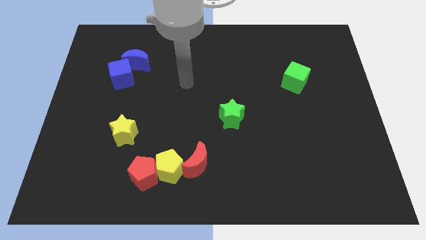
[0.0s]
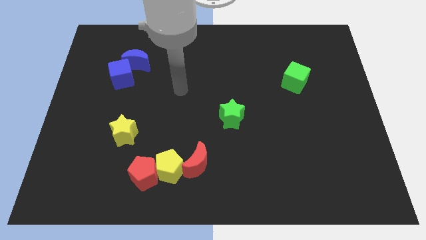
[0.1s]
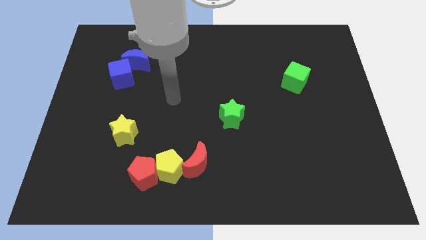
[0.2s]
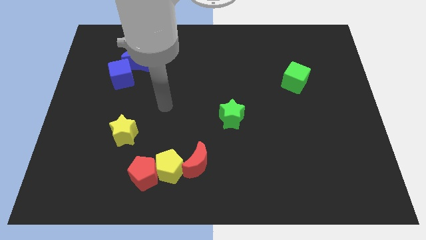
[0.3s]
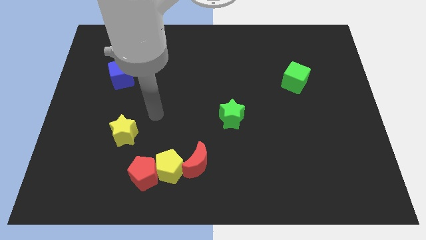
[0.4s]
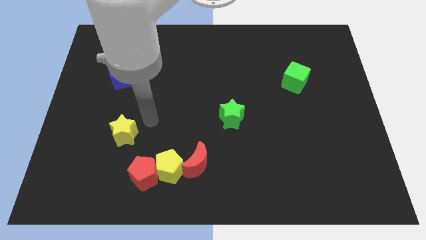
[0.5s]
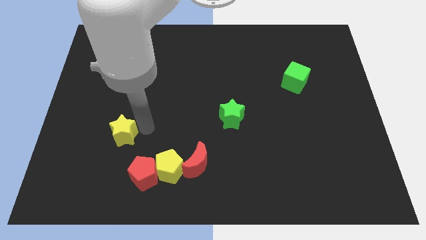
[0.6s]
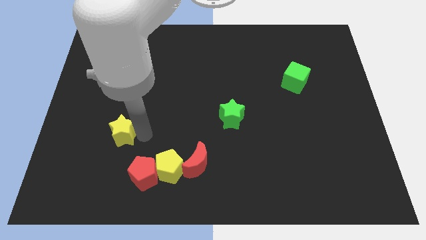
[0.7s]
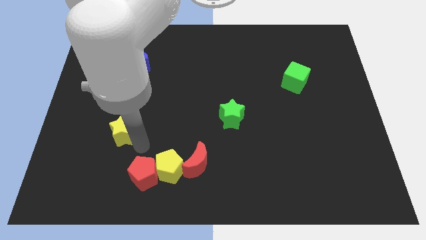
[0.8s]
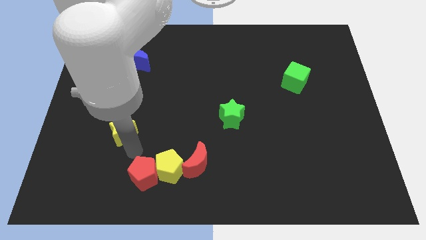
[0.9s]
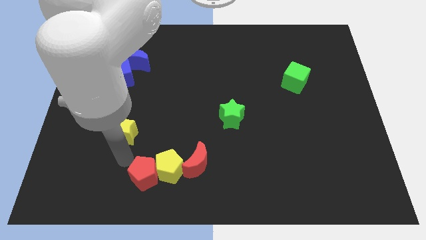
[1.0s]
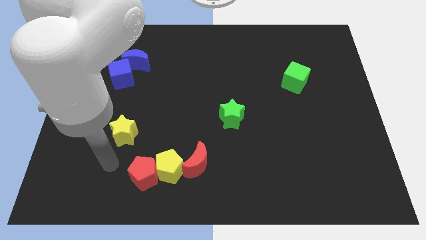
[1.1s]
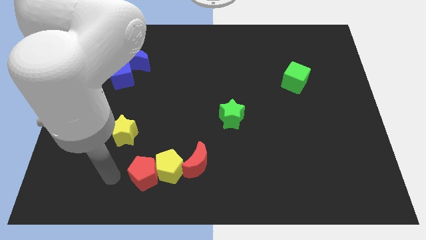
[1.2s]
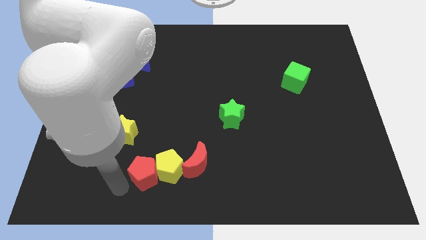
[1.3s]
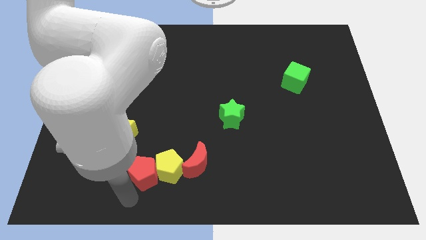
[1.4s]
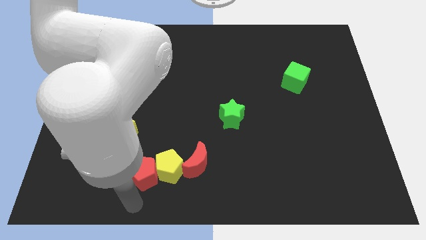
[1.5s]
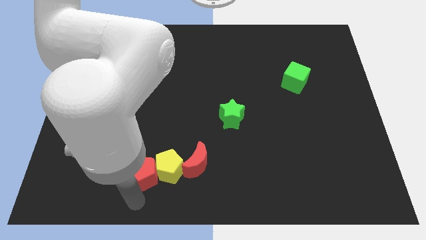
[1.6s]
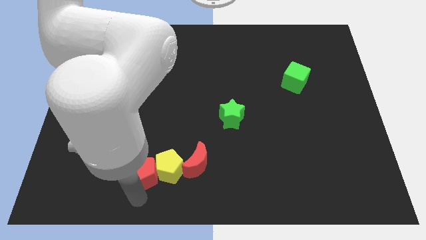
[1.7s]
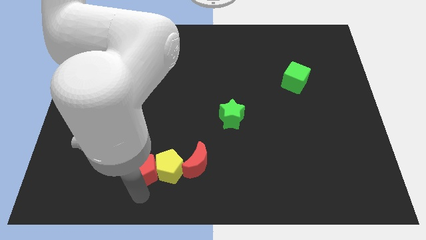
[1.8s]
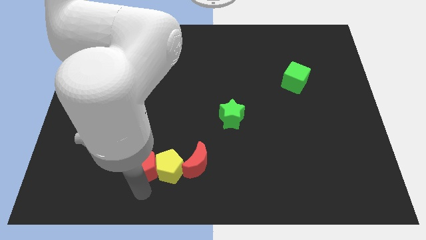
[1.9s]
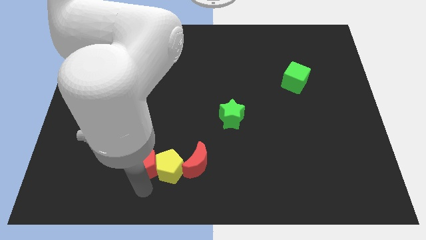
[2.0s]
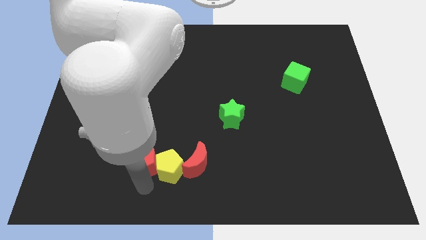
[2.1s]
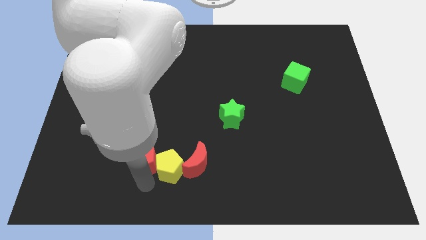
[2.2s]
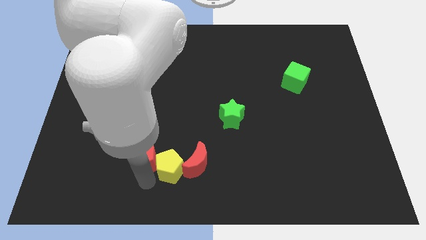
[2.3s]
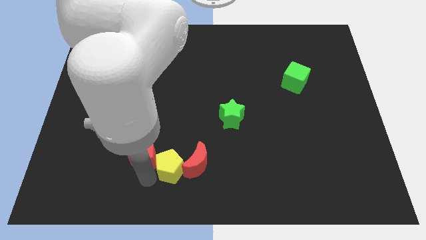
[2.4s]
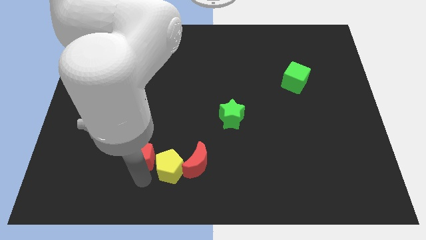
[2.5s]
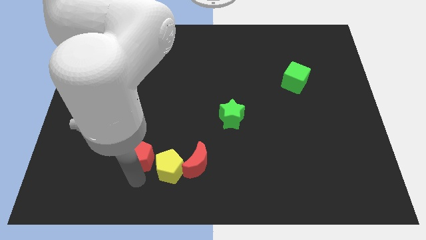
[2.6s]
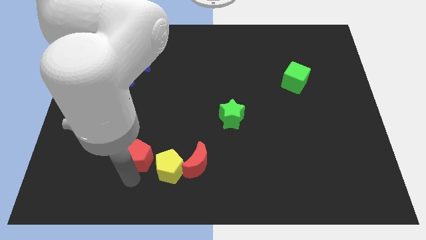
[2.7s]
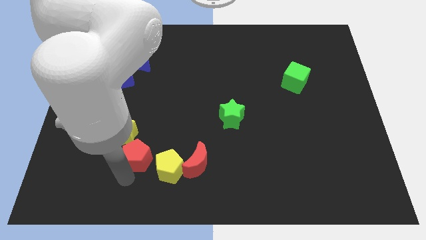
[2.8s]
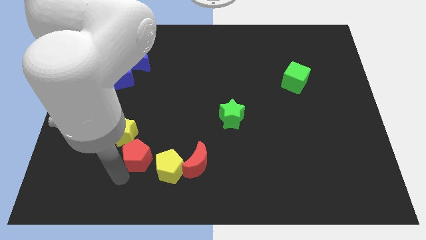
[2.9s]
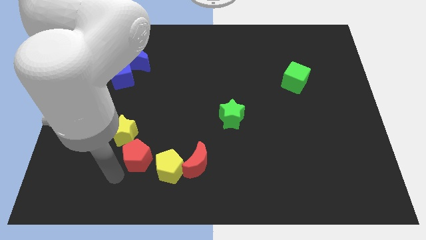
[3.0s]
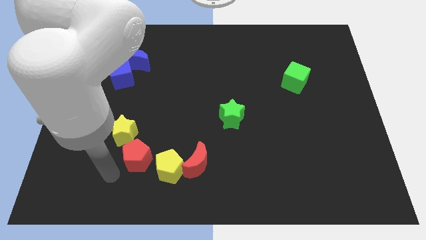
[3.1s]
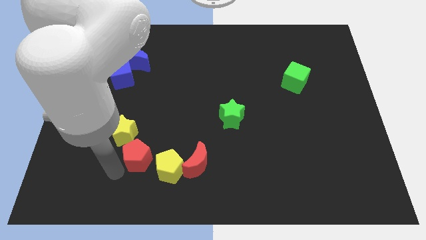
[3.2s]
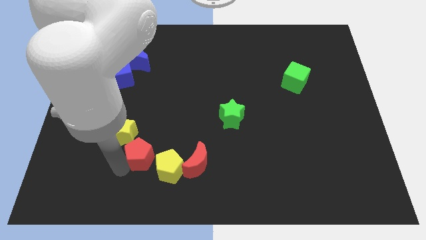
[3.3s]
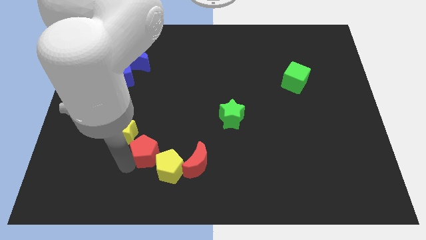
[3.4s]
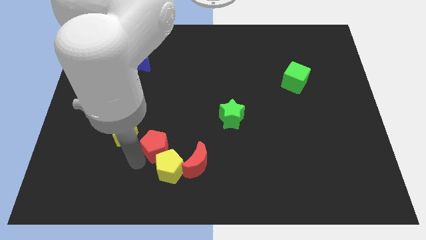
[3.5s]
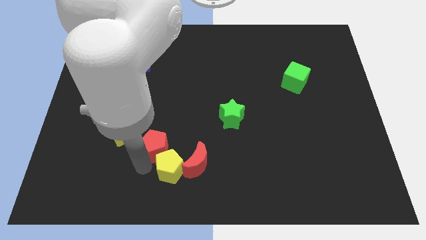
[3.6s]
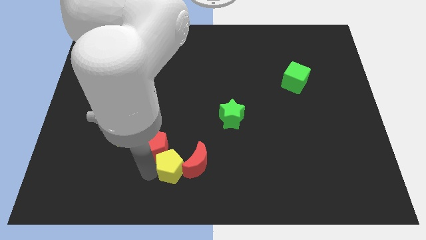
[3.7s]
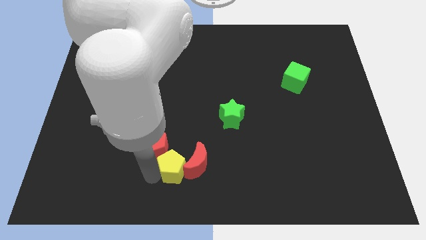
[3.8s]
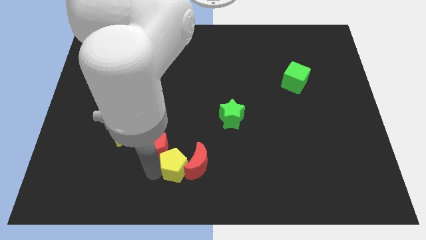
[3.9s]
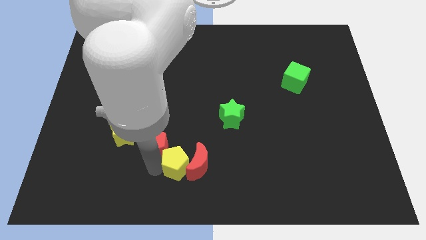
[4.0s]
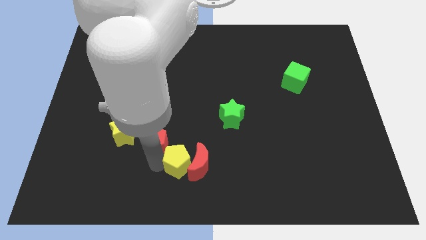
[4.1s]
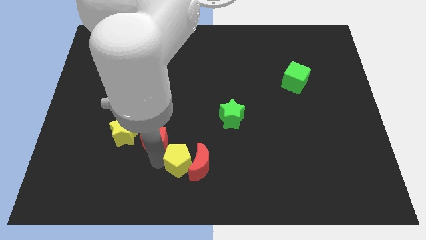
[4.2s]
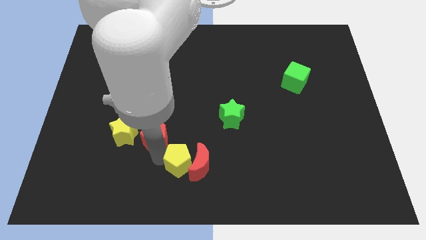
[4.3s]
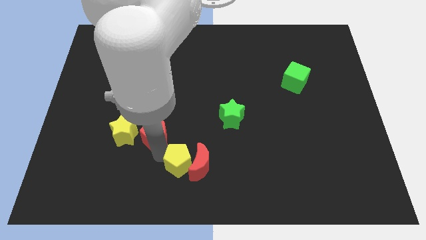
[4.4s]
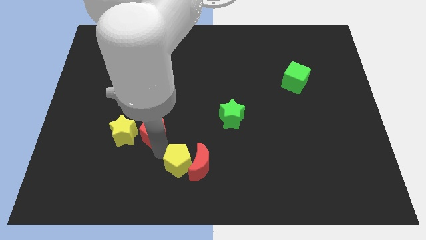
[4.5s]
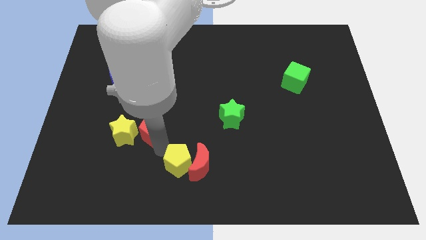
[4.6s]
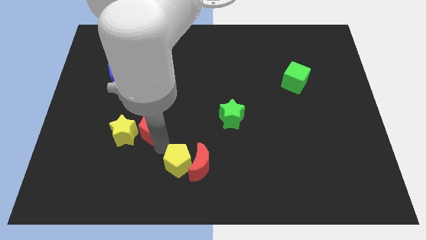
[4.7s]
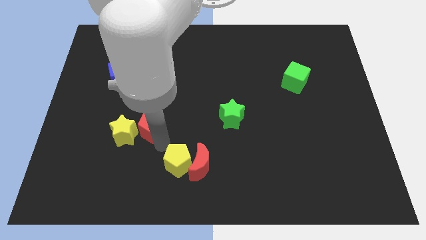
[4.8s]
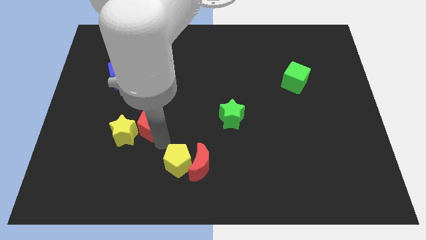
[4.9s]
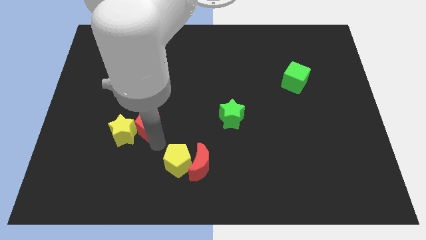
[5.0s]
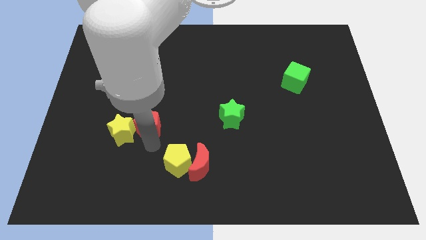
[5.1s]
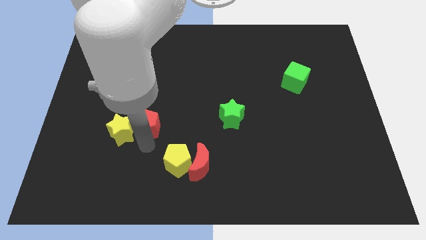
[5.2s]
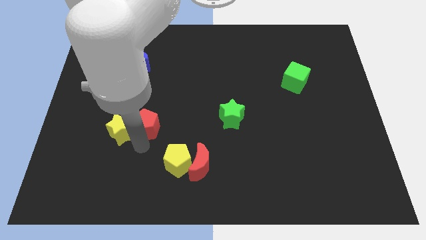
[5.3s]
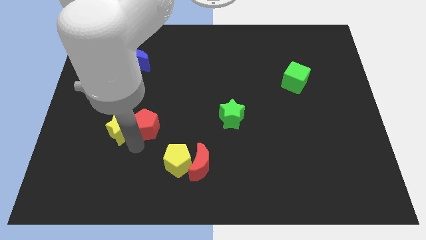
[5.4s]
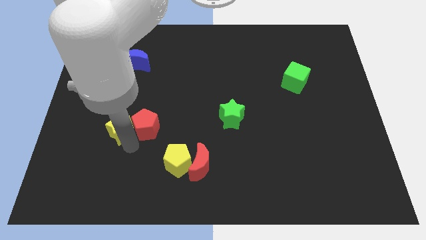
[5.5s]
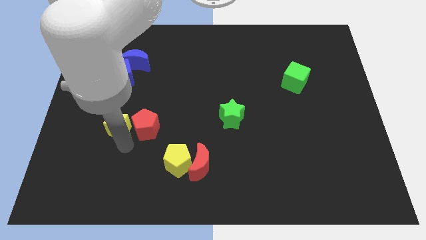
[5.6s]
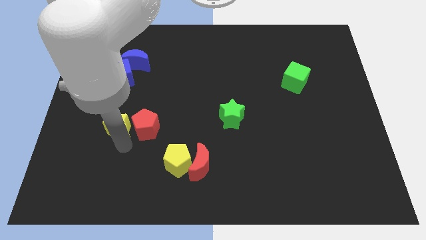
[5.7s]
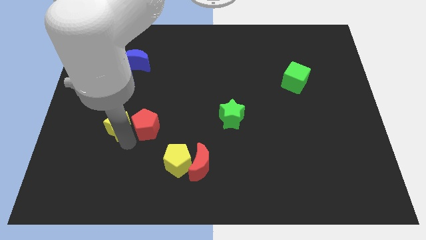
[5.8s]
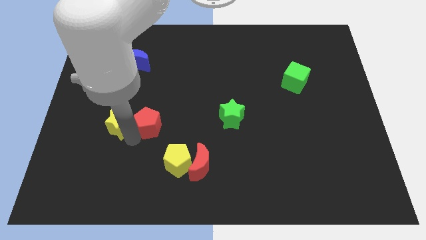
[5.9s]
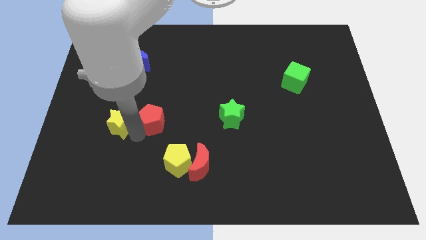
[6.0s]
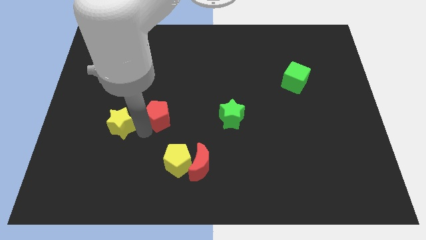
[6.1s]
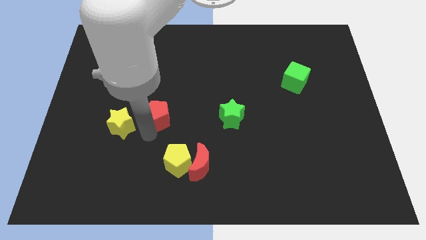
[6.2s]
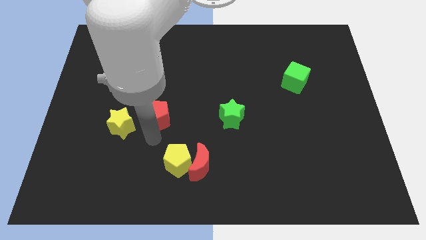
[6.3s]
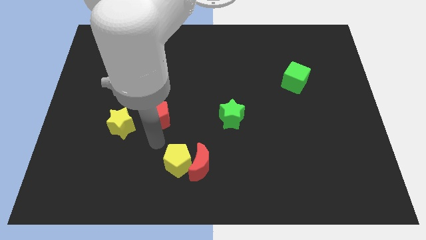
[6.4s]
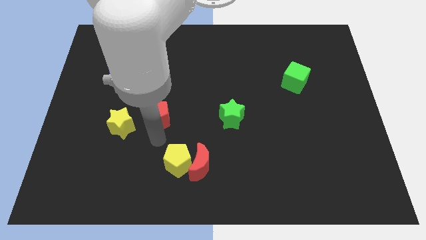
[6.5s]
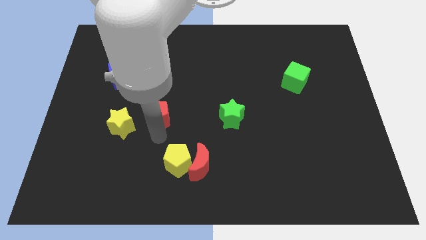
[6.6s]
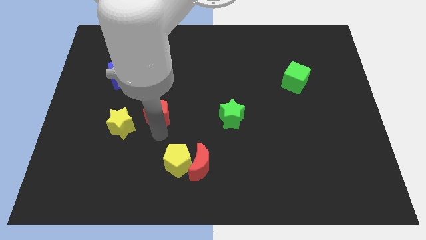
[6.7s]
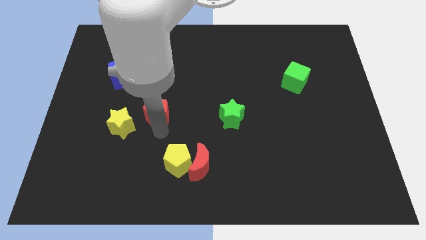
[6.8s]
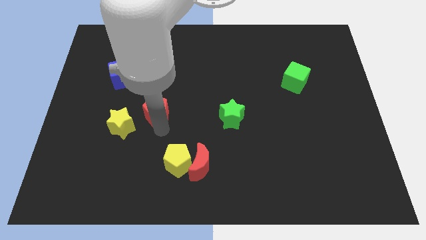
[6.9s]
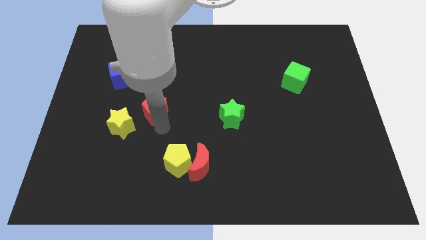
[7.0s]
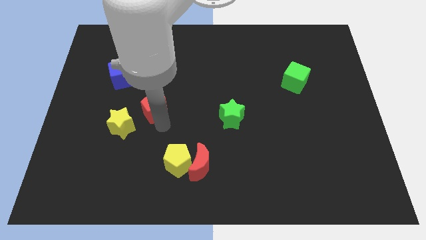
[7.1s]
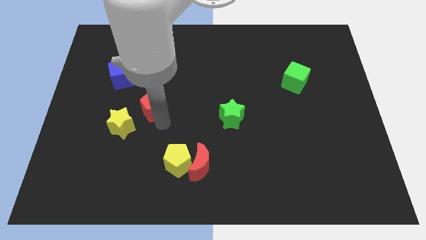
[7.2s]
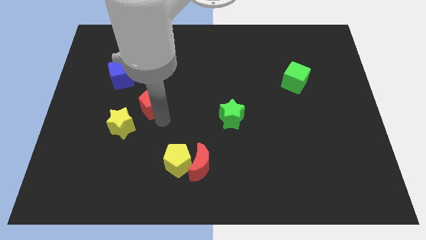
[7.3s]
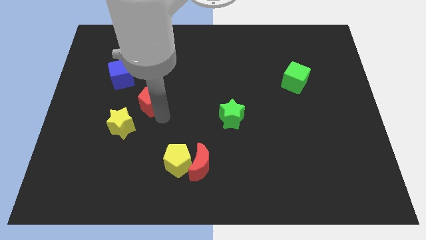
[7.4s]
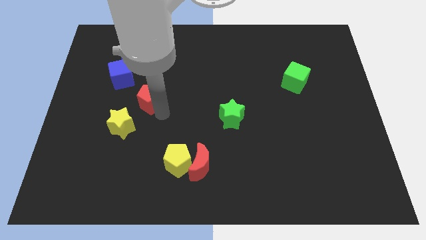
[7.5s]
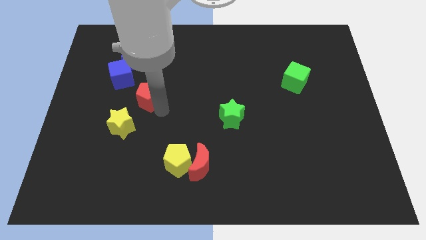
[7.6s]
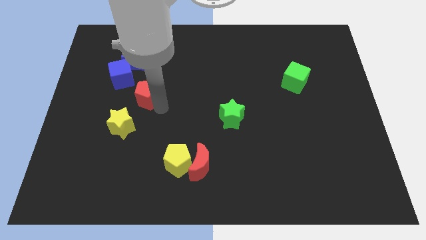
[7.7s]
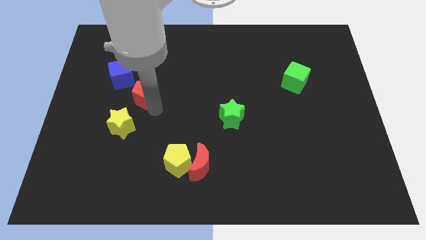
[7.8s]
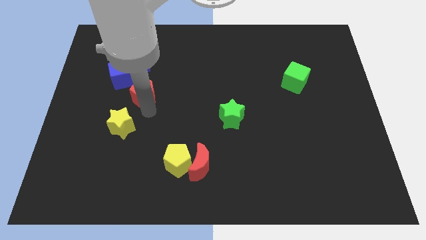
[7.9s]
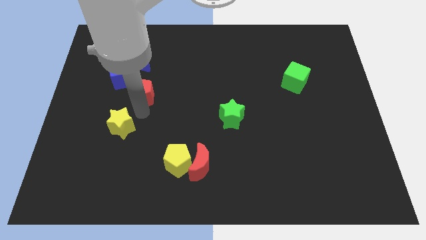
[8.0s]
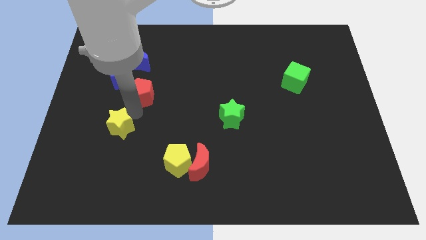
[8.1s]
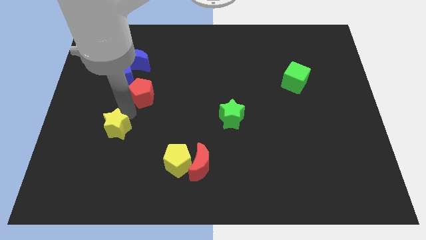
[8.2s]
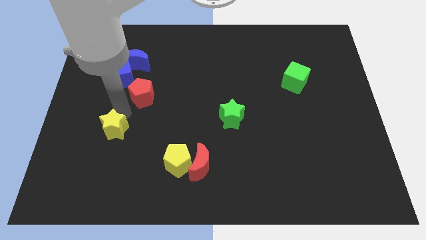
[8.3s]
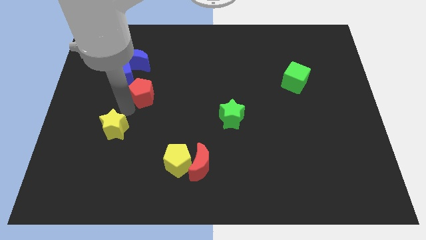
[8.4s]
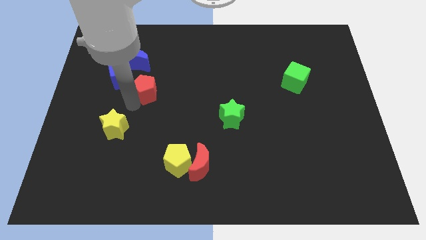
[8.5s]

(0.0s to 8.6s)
slide the red pentagon right of the blue cube
